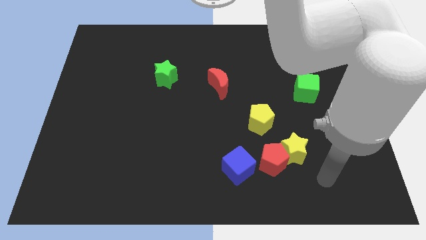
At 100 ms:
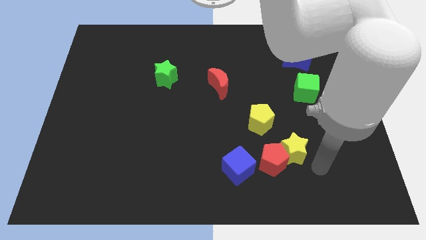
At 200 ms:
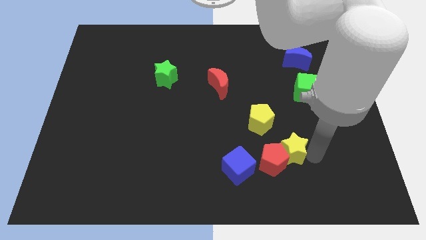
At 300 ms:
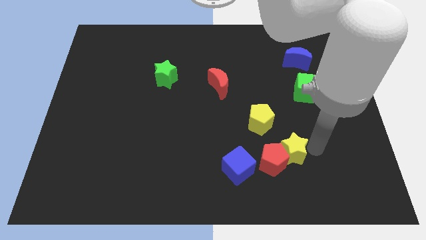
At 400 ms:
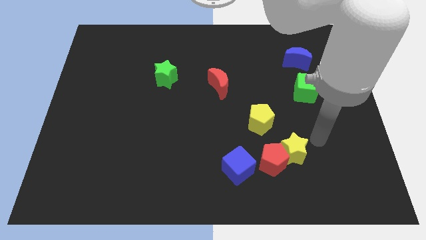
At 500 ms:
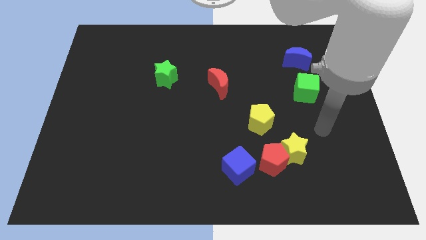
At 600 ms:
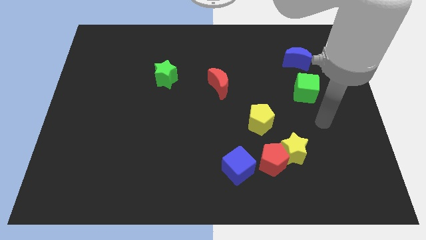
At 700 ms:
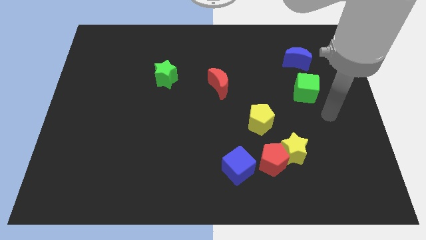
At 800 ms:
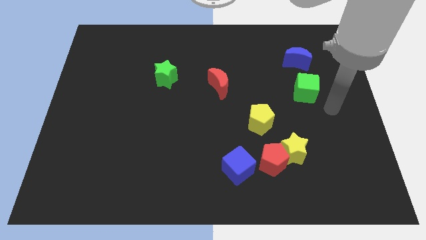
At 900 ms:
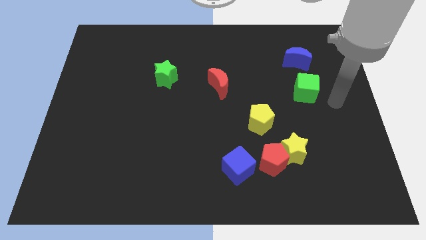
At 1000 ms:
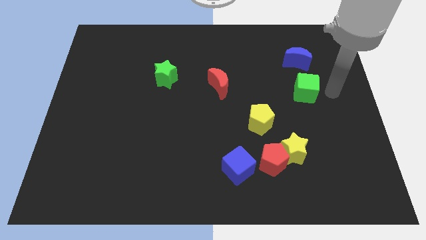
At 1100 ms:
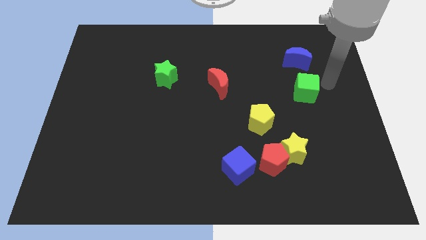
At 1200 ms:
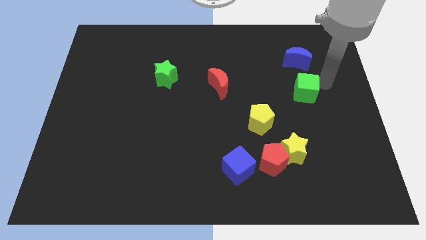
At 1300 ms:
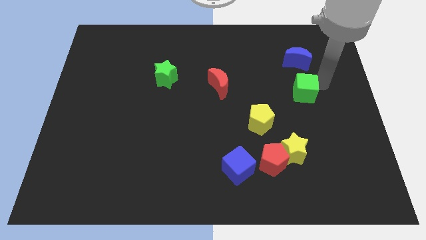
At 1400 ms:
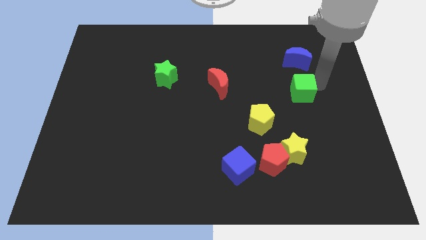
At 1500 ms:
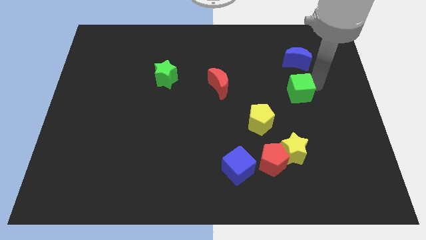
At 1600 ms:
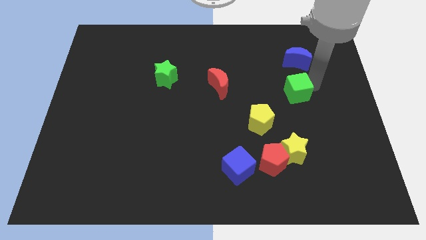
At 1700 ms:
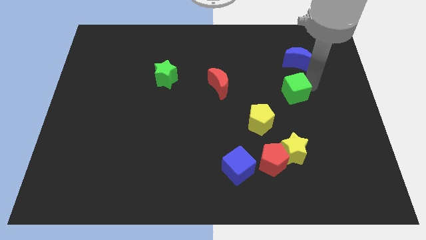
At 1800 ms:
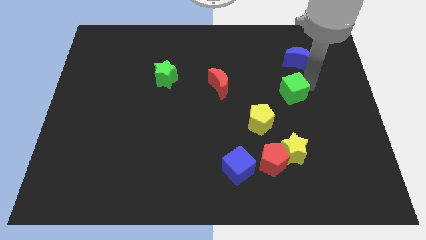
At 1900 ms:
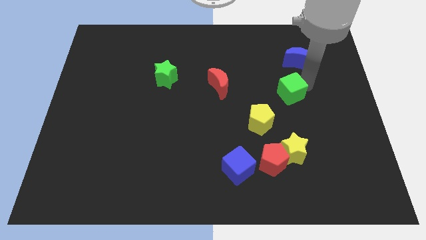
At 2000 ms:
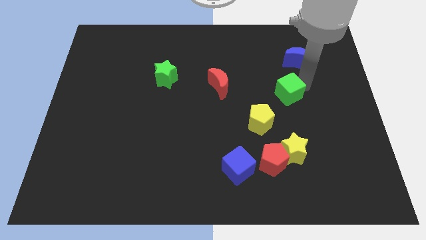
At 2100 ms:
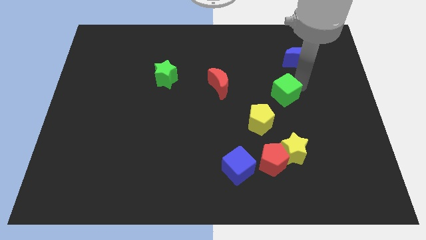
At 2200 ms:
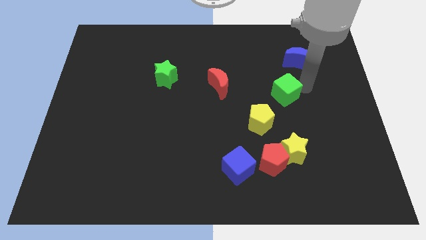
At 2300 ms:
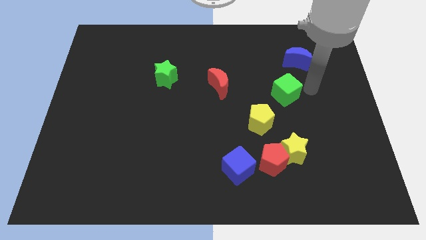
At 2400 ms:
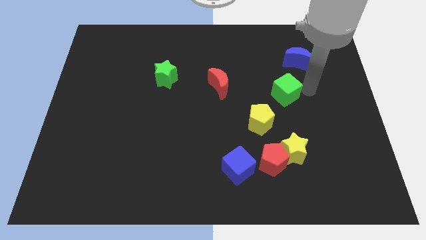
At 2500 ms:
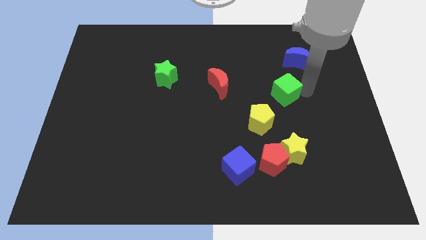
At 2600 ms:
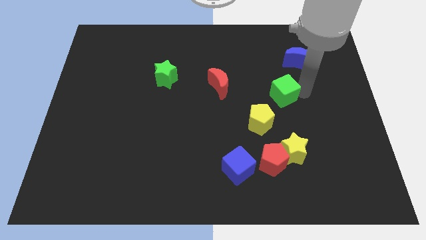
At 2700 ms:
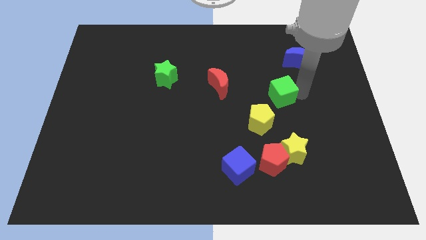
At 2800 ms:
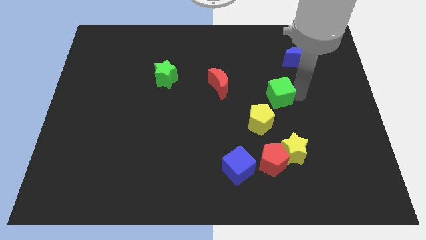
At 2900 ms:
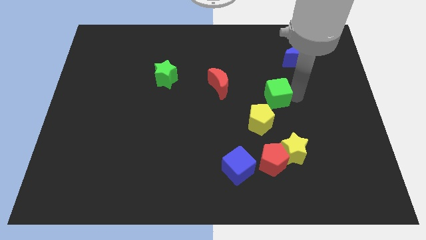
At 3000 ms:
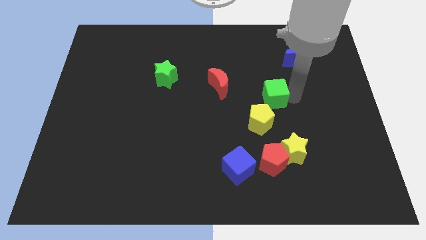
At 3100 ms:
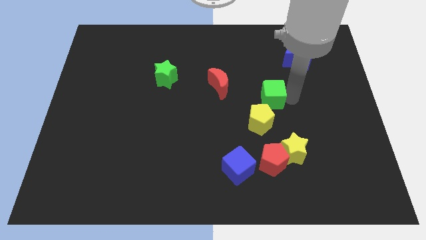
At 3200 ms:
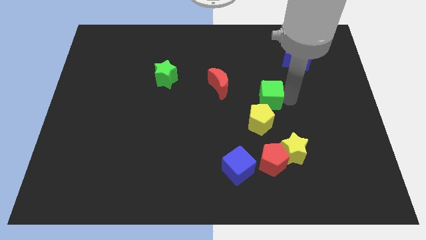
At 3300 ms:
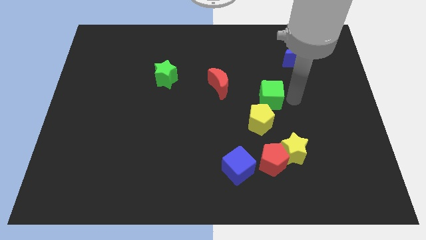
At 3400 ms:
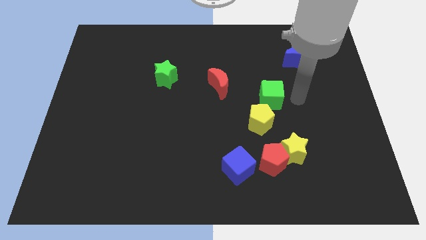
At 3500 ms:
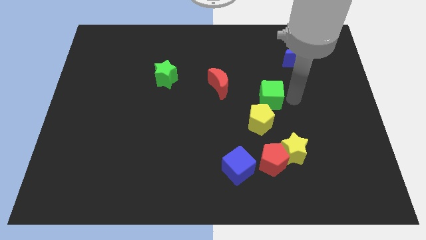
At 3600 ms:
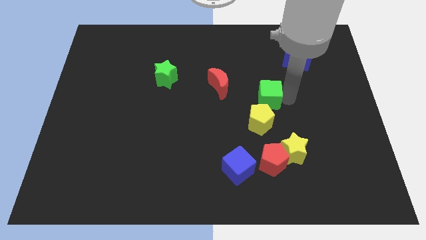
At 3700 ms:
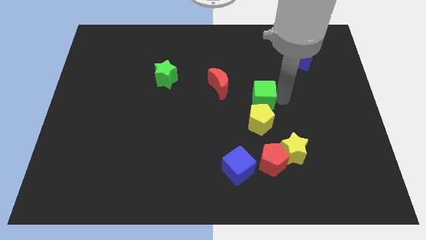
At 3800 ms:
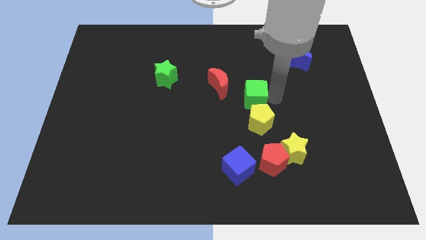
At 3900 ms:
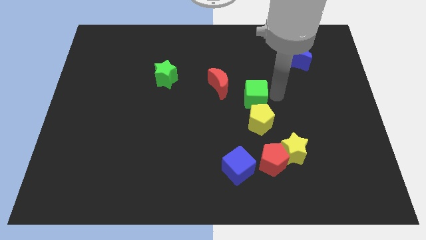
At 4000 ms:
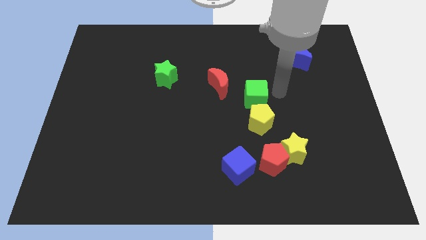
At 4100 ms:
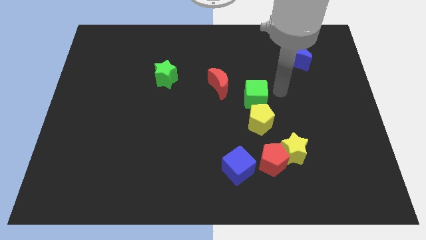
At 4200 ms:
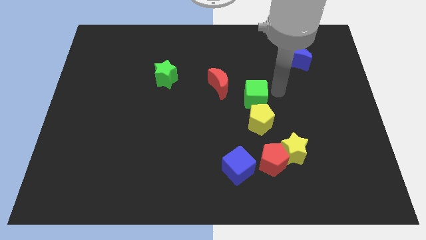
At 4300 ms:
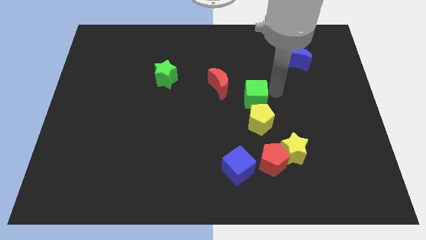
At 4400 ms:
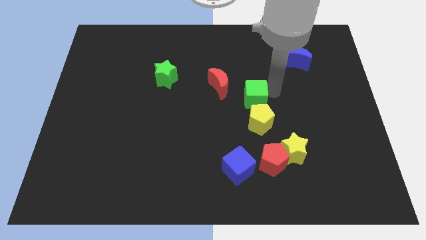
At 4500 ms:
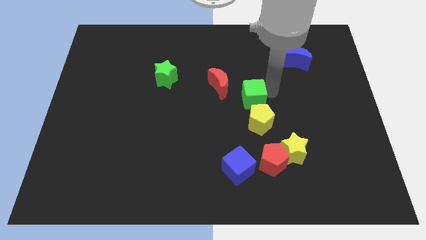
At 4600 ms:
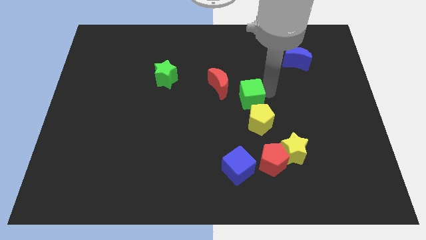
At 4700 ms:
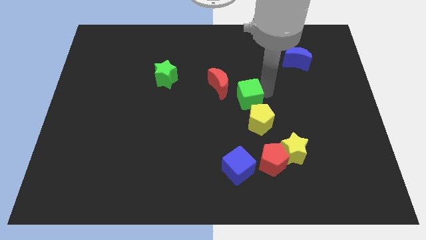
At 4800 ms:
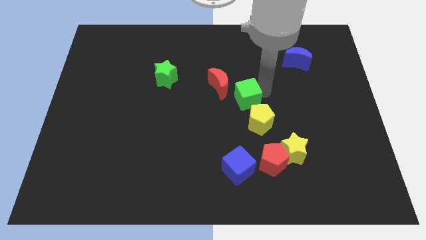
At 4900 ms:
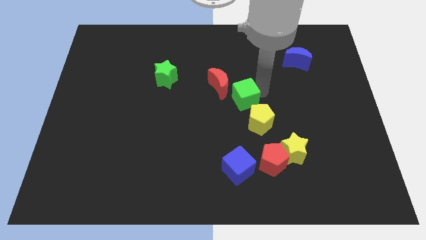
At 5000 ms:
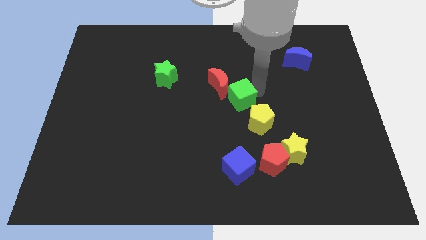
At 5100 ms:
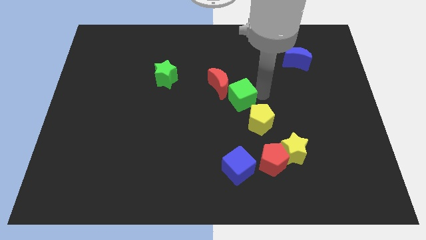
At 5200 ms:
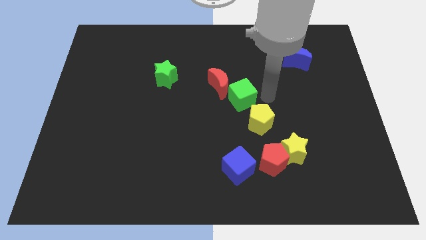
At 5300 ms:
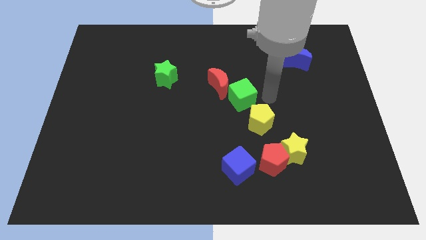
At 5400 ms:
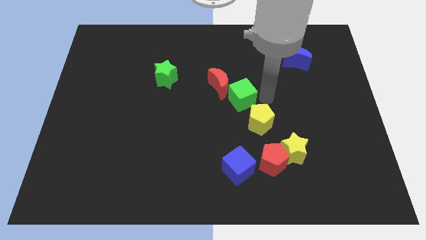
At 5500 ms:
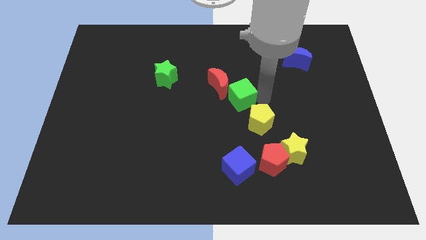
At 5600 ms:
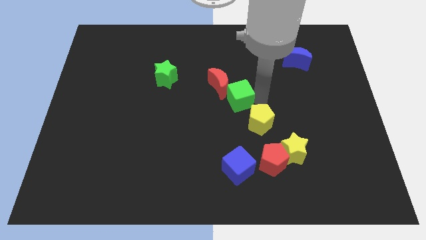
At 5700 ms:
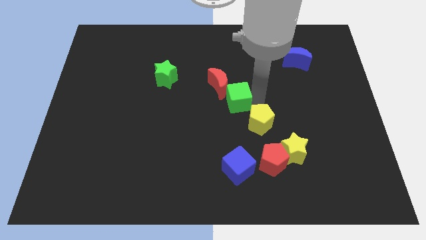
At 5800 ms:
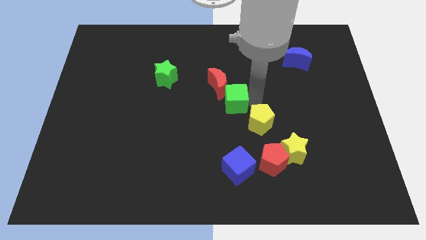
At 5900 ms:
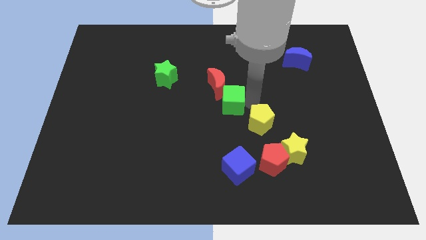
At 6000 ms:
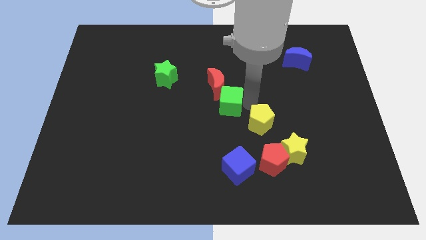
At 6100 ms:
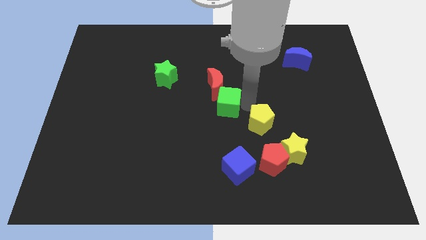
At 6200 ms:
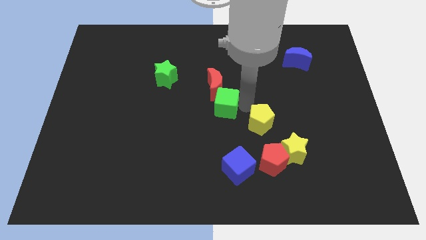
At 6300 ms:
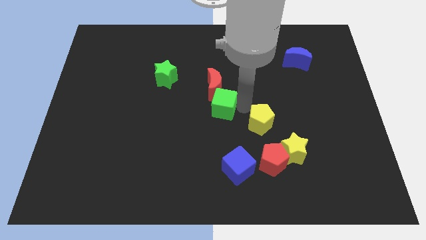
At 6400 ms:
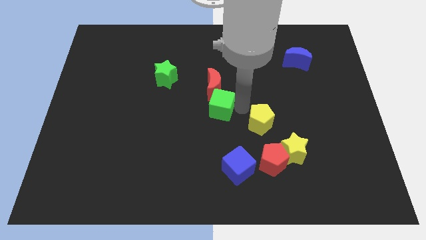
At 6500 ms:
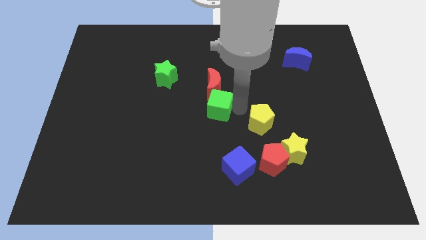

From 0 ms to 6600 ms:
move the green cube left

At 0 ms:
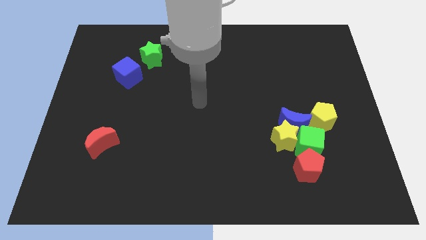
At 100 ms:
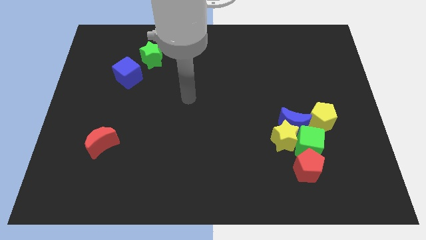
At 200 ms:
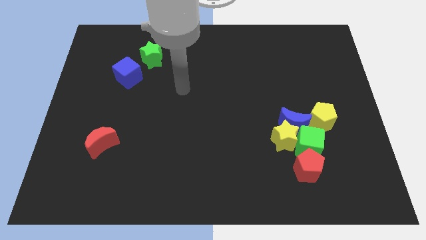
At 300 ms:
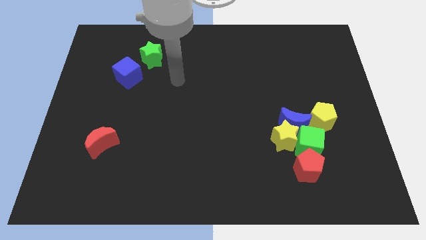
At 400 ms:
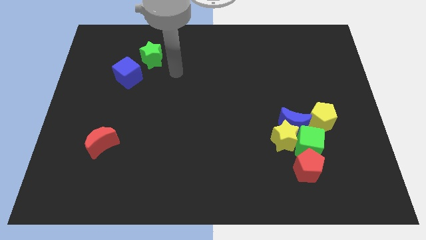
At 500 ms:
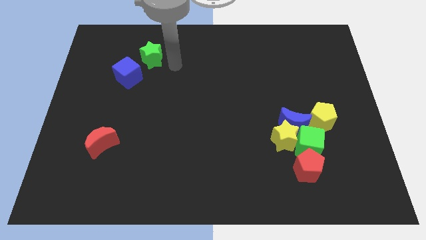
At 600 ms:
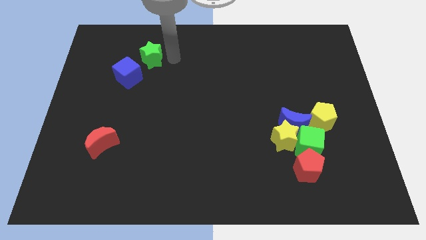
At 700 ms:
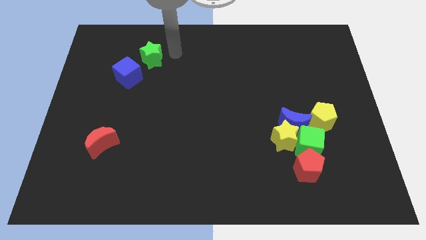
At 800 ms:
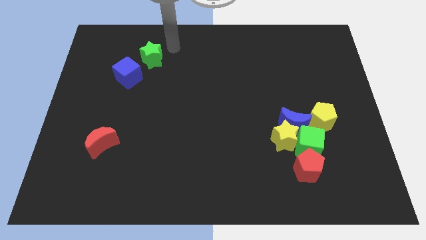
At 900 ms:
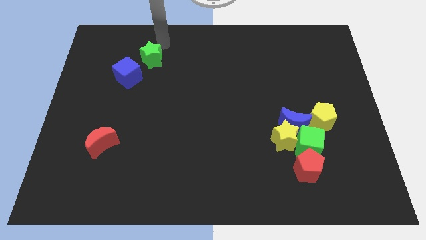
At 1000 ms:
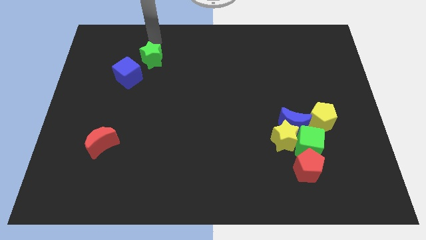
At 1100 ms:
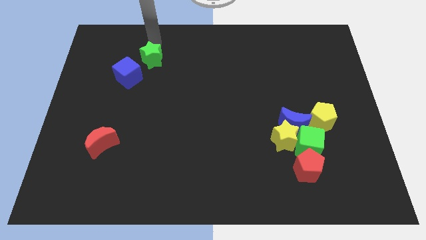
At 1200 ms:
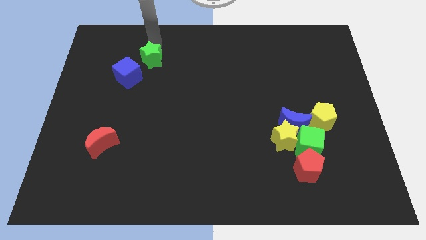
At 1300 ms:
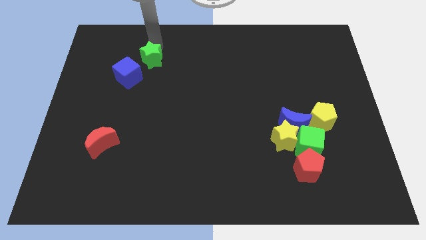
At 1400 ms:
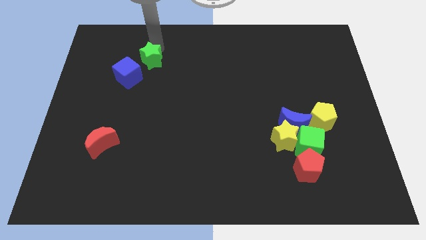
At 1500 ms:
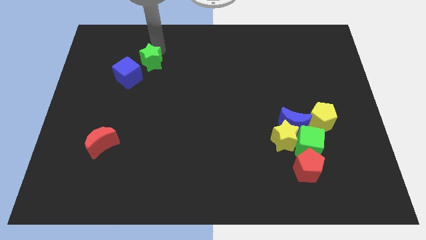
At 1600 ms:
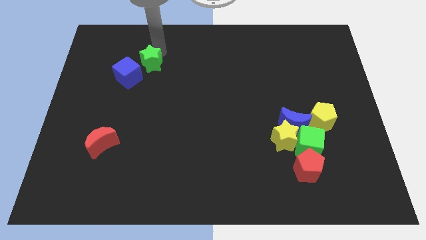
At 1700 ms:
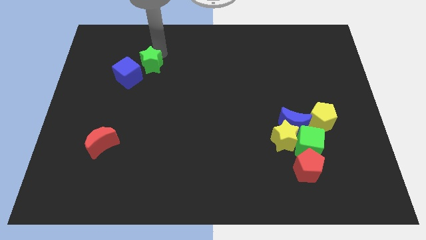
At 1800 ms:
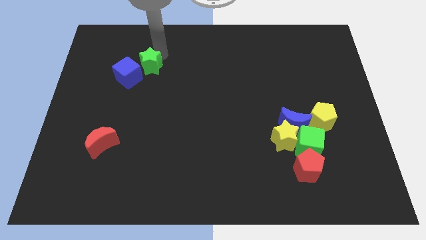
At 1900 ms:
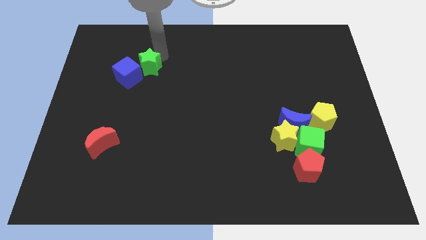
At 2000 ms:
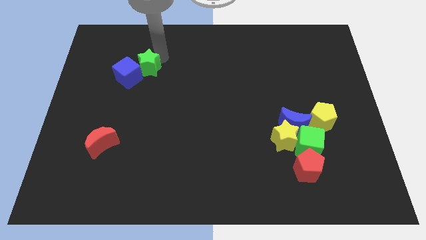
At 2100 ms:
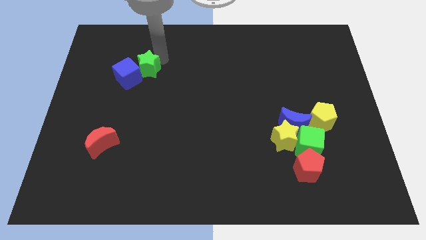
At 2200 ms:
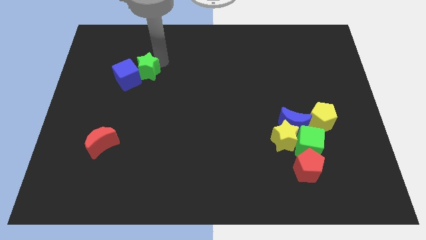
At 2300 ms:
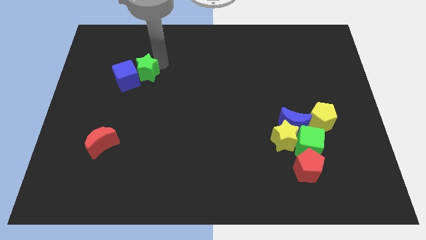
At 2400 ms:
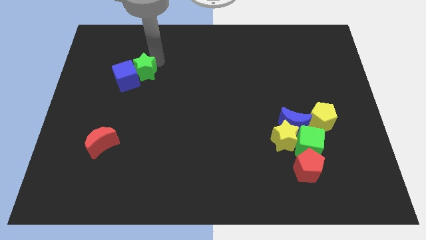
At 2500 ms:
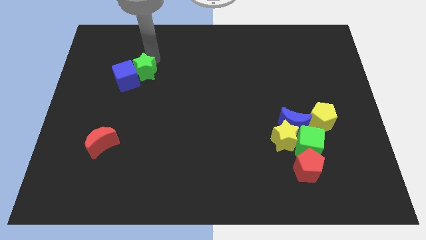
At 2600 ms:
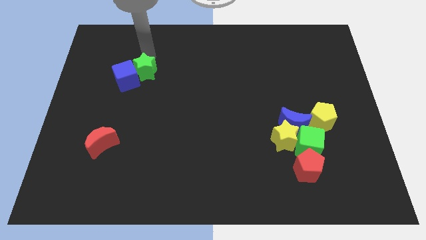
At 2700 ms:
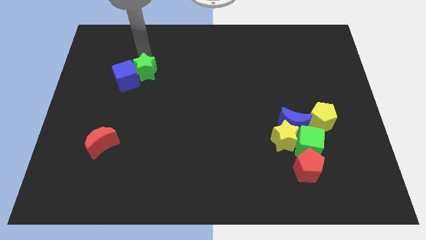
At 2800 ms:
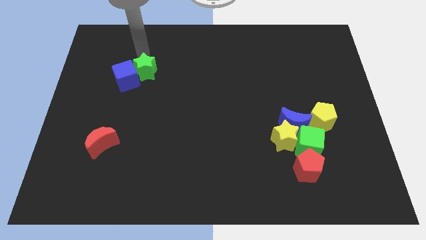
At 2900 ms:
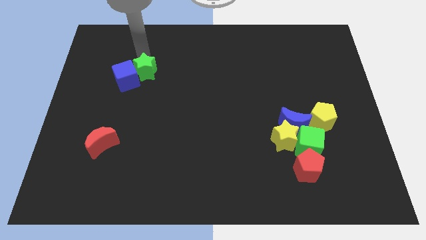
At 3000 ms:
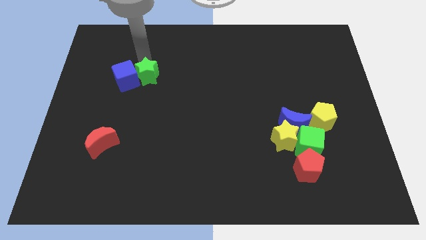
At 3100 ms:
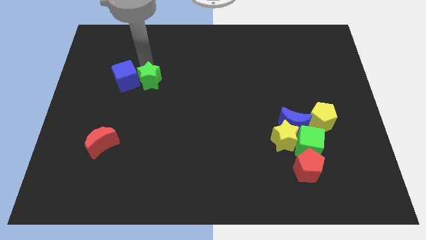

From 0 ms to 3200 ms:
move the green star downwards slightly
